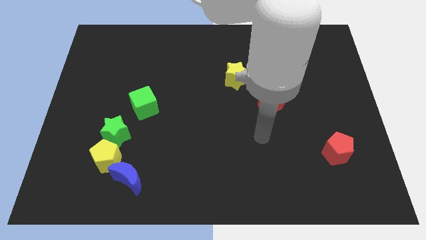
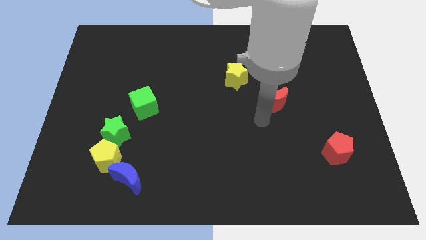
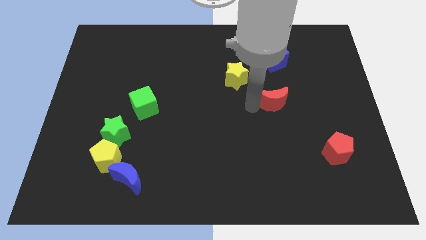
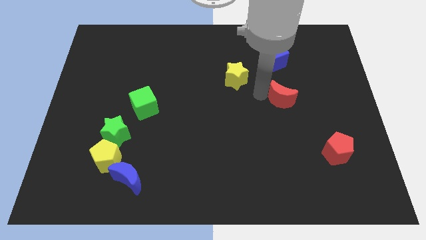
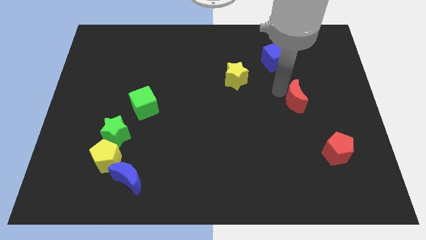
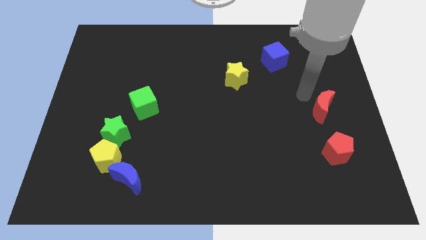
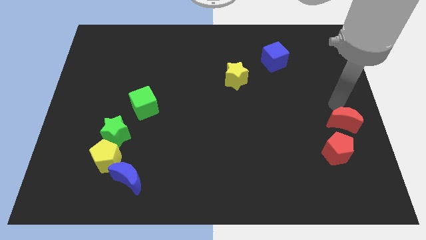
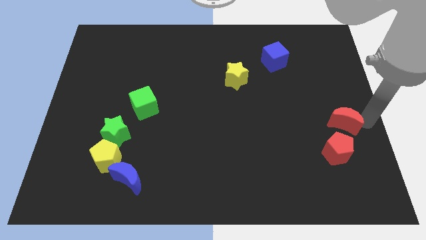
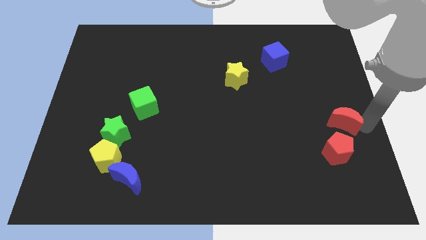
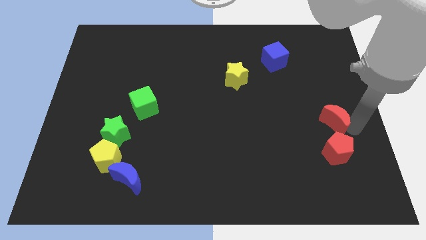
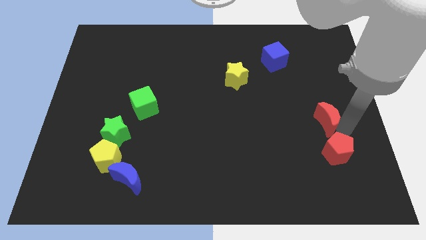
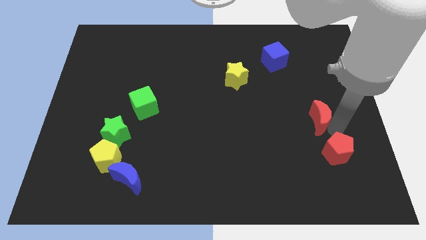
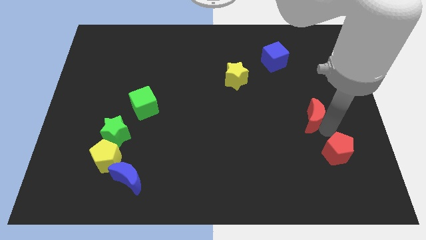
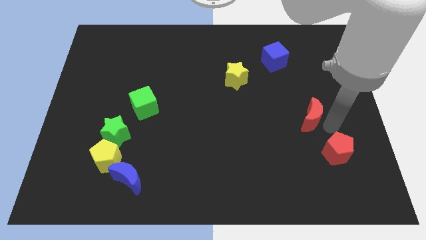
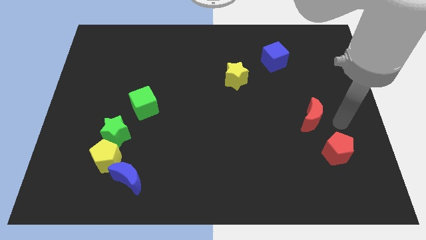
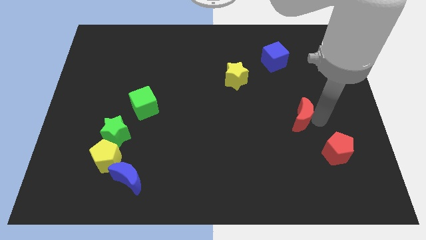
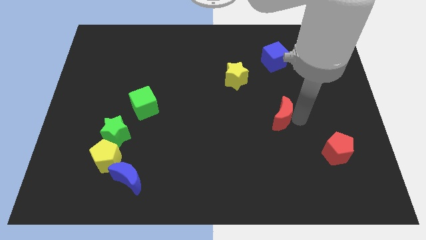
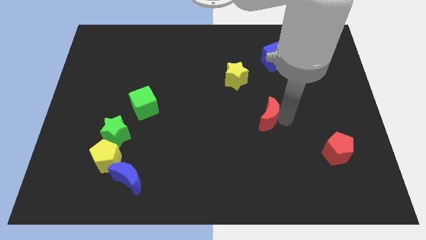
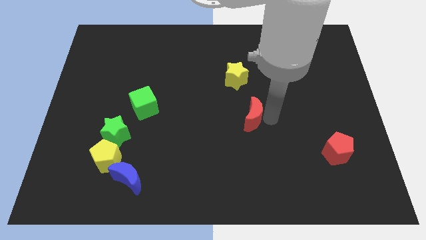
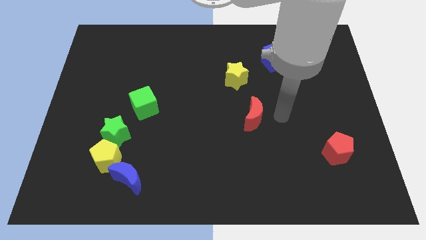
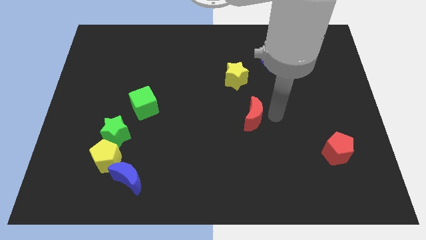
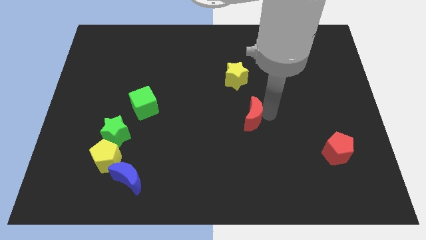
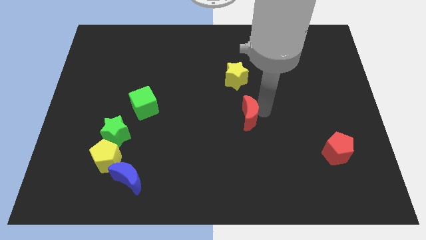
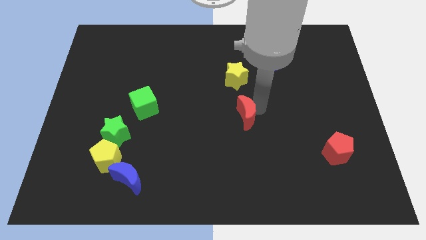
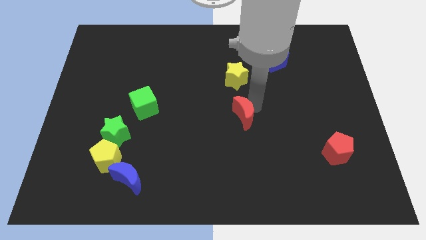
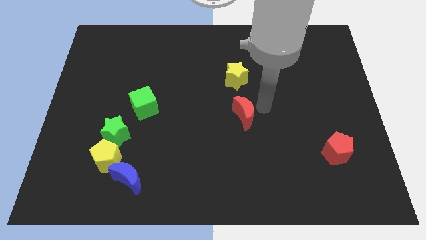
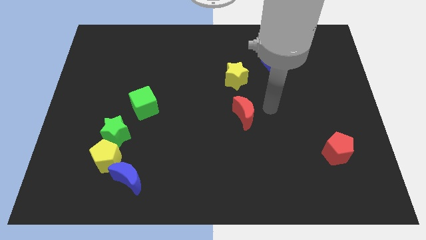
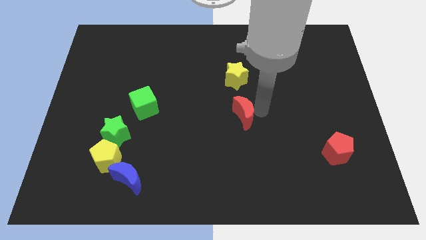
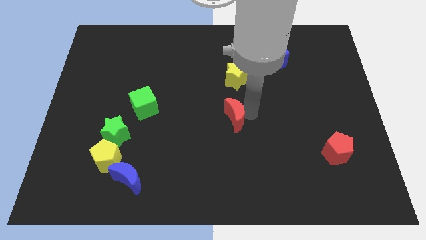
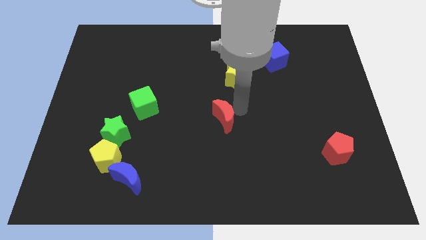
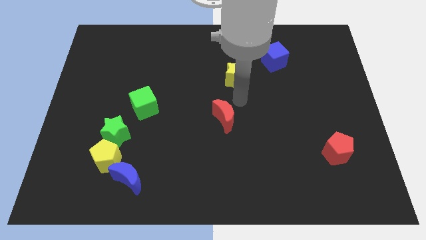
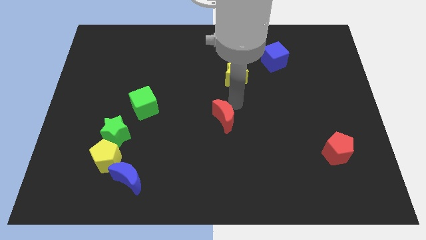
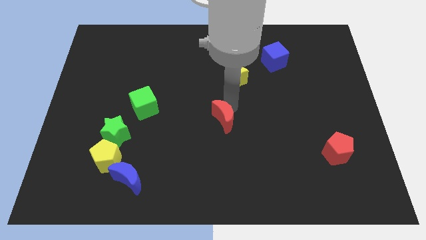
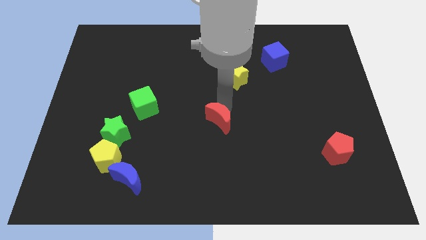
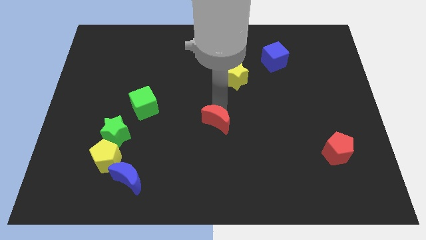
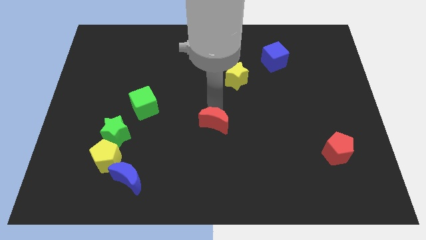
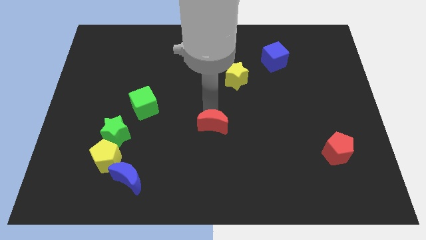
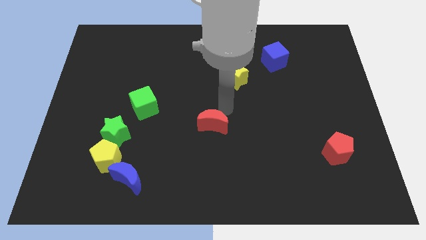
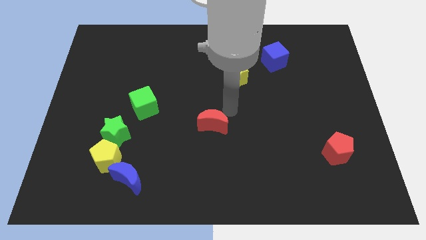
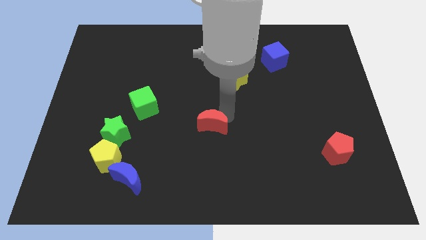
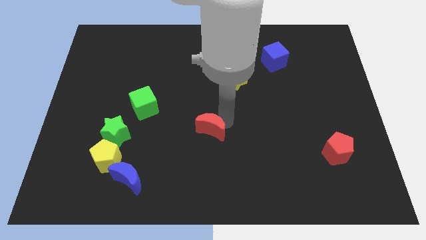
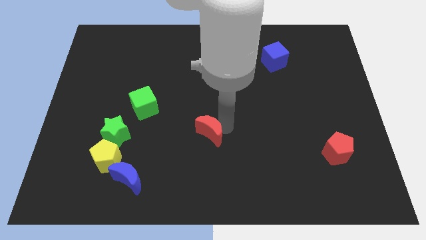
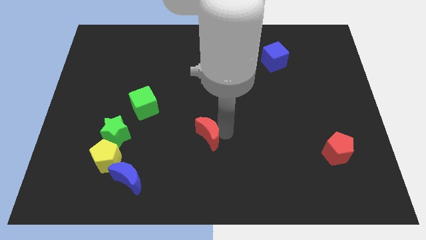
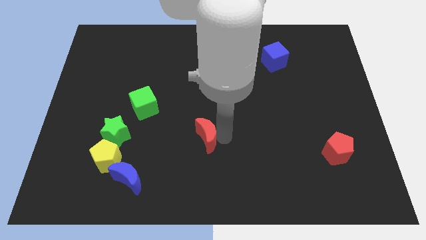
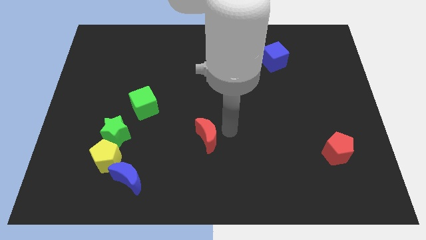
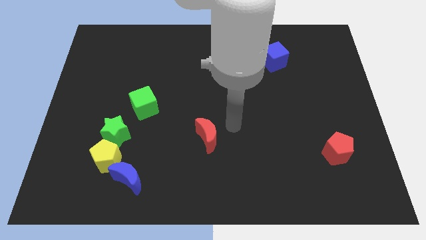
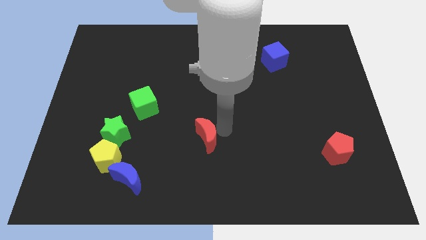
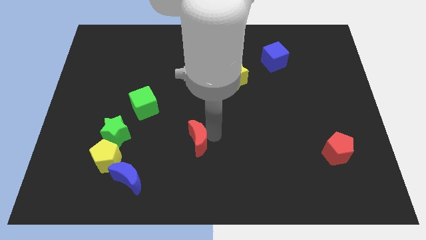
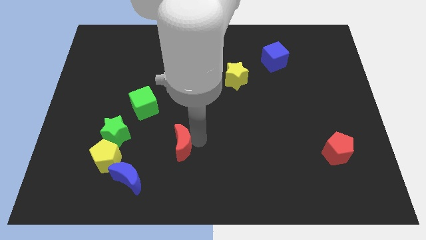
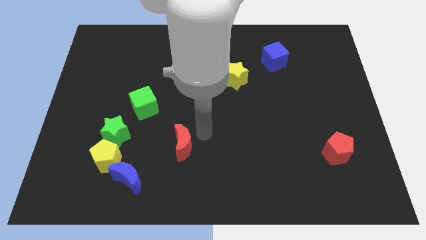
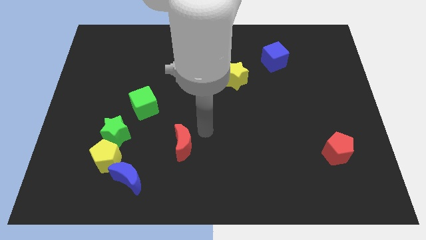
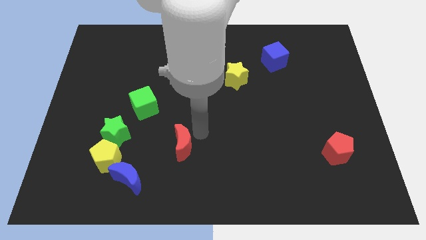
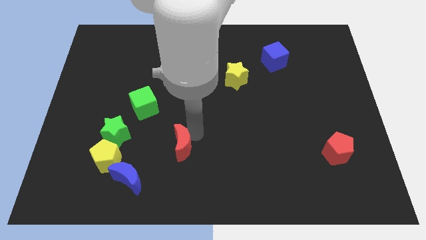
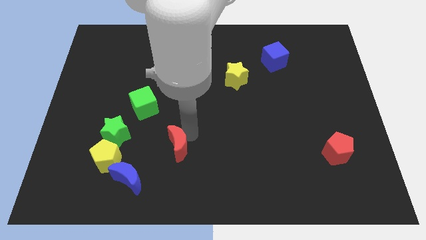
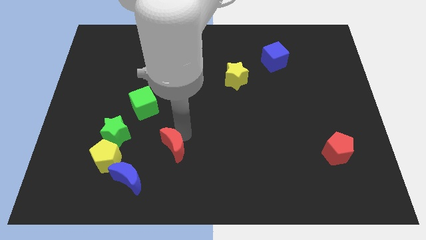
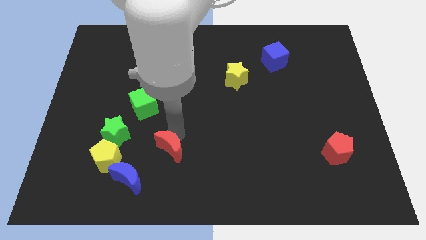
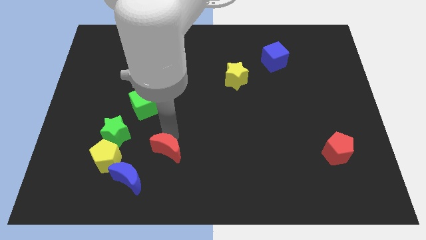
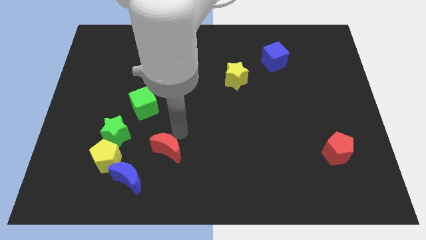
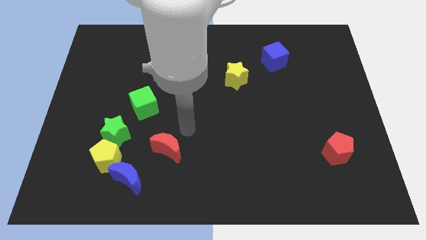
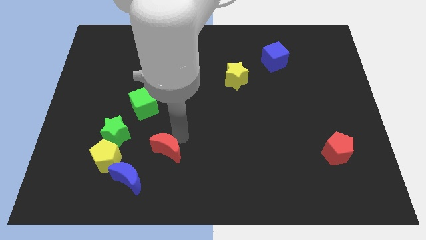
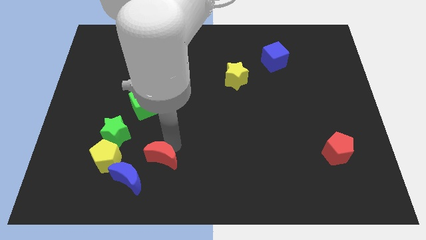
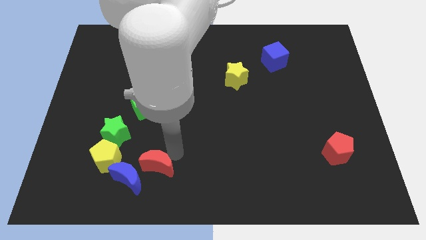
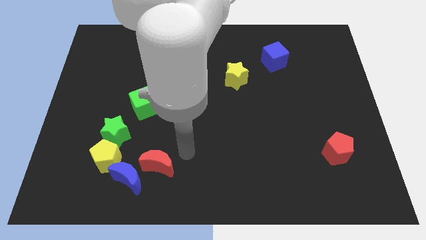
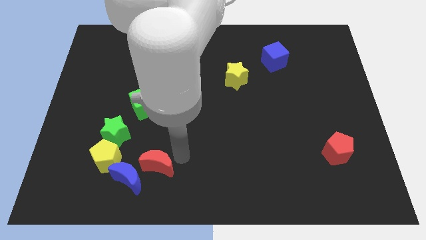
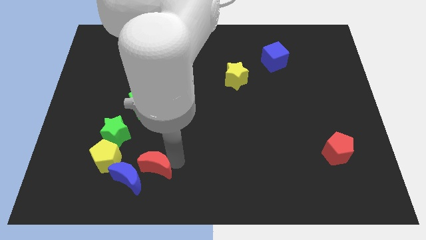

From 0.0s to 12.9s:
put the red moon to the blue moon

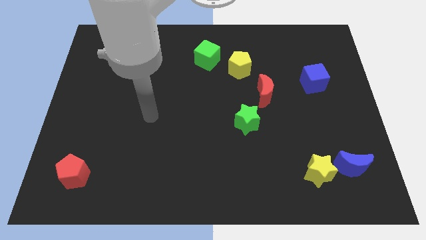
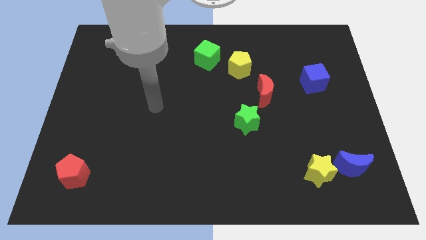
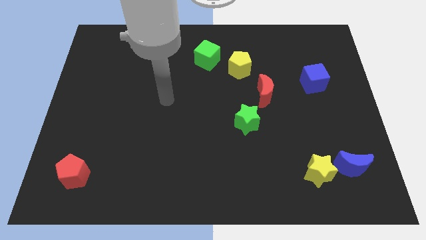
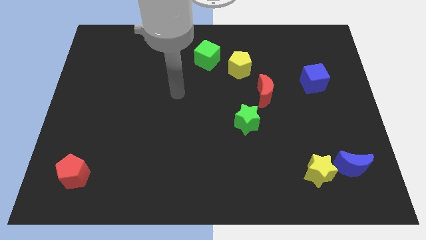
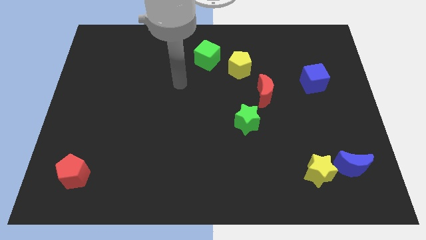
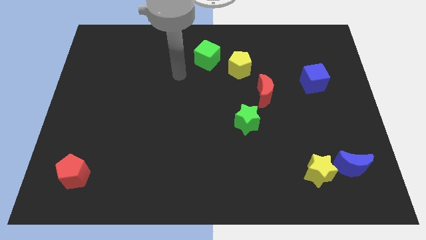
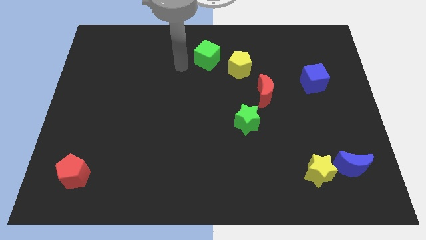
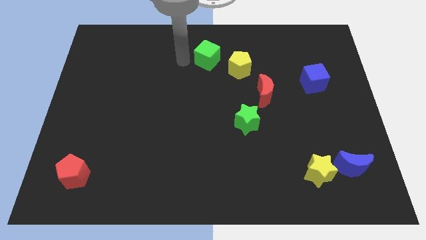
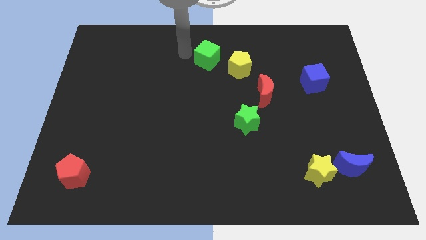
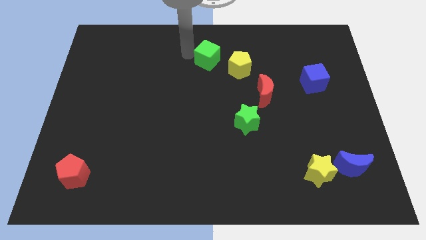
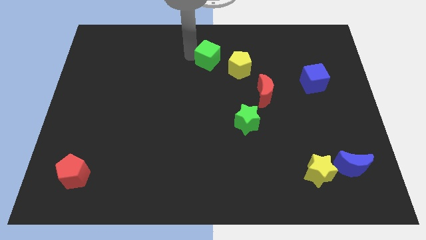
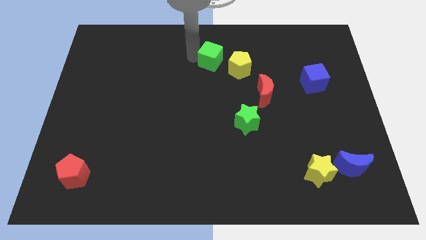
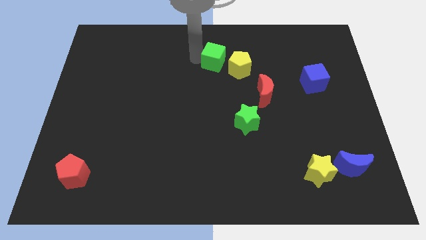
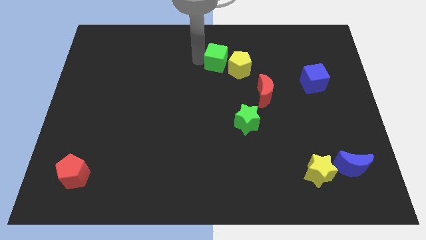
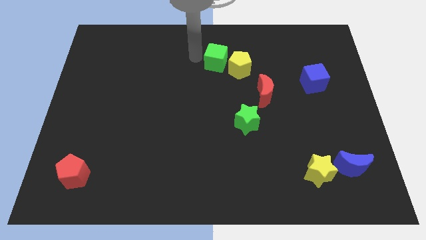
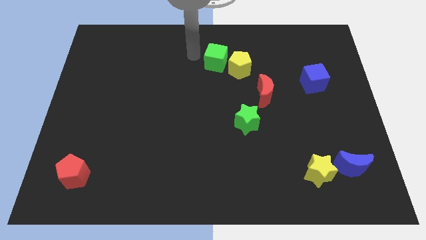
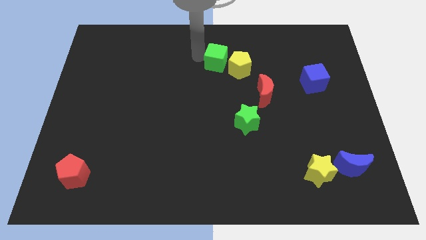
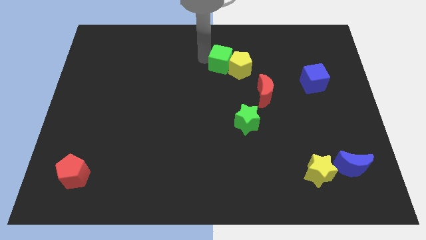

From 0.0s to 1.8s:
slide the green cube close to the yellow pentagon
